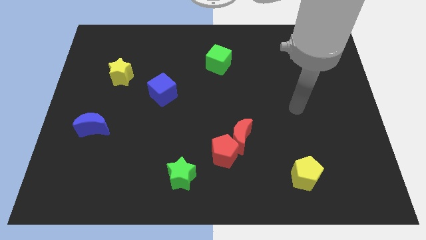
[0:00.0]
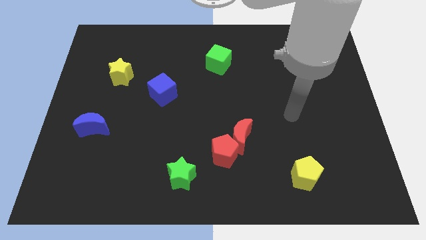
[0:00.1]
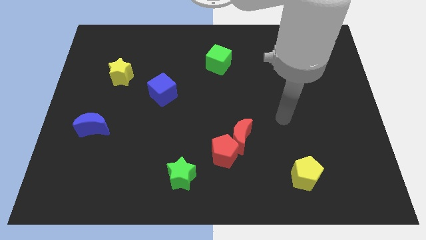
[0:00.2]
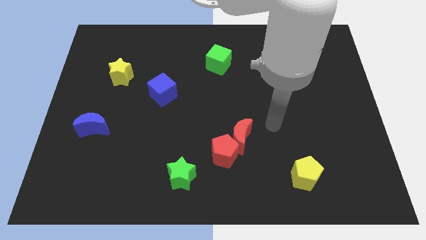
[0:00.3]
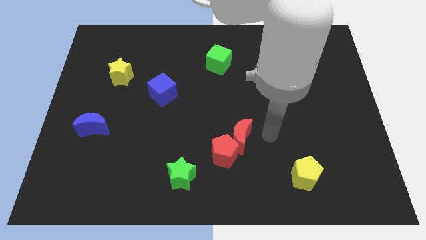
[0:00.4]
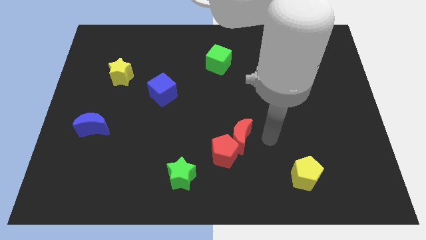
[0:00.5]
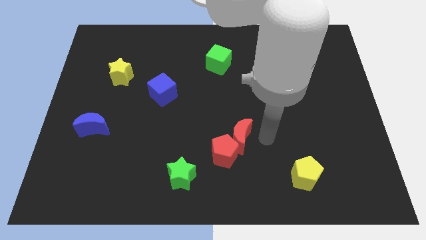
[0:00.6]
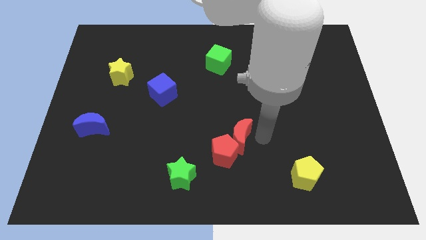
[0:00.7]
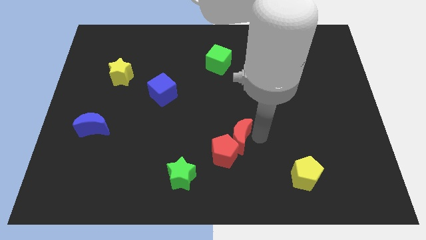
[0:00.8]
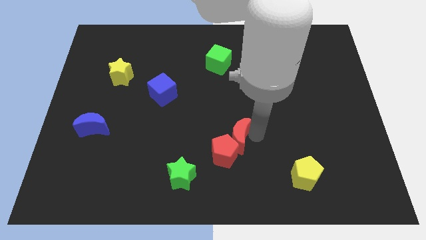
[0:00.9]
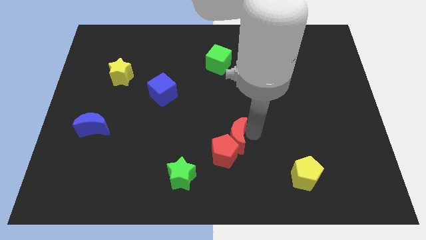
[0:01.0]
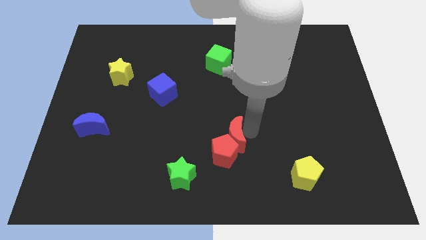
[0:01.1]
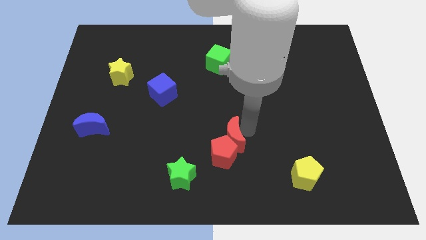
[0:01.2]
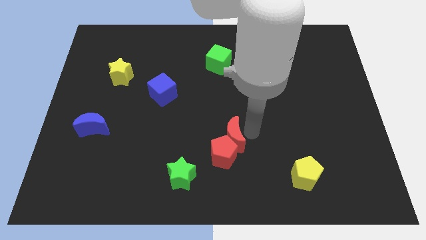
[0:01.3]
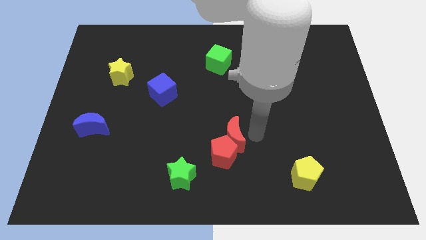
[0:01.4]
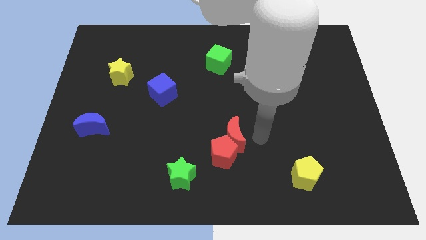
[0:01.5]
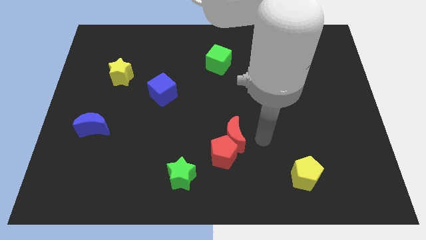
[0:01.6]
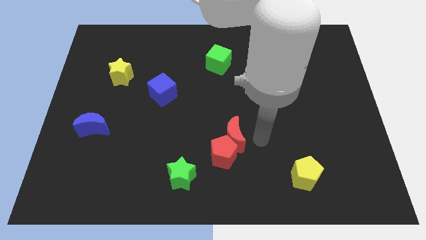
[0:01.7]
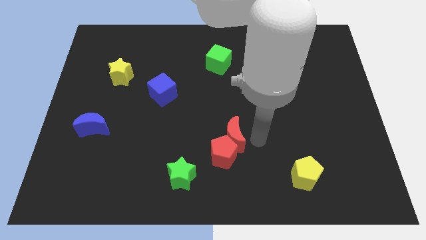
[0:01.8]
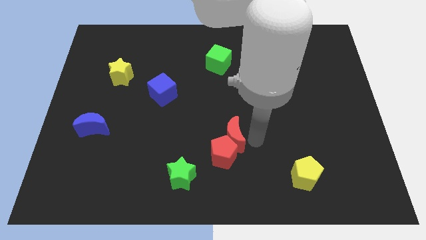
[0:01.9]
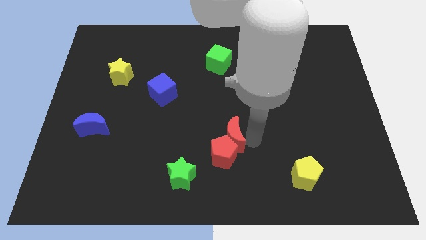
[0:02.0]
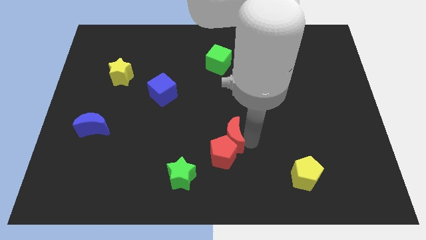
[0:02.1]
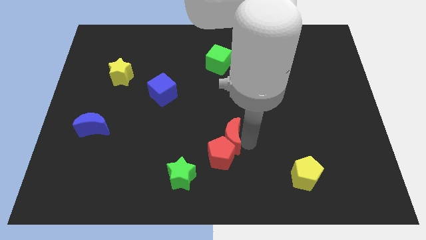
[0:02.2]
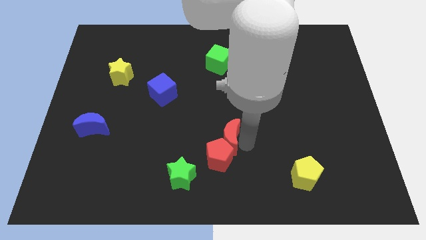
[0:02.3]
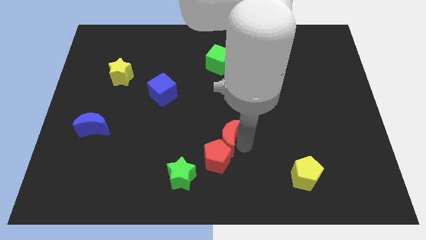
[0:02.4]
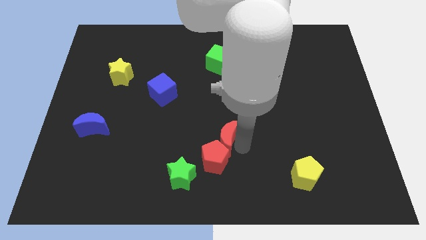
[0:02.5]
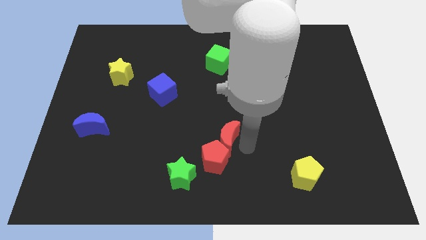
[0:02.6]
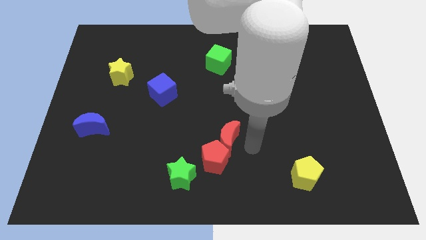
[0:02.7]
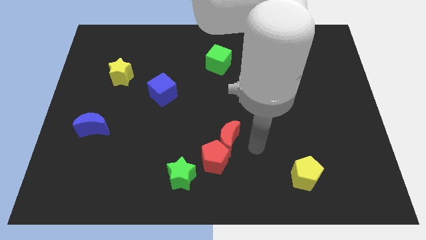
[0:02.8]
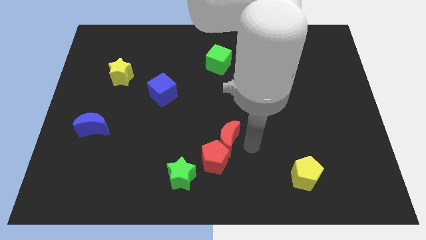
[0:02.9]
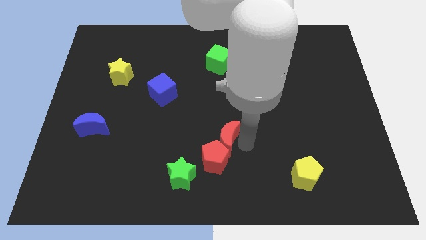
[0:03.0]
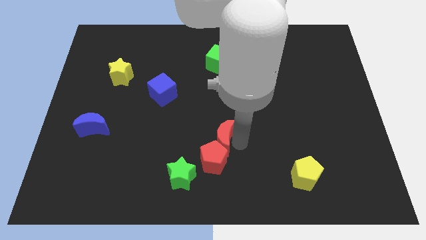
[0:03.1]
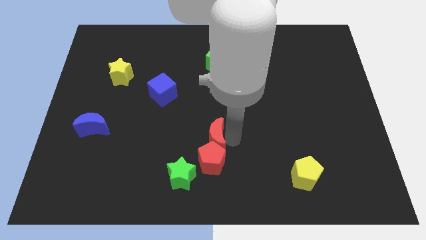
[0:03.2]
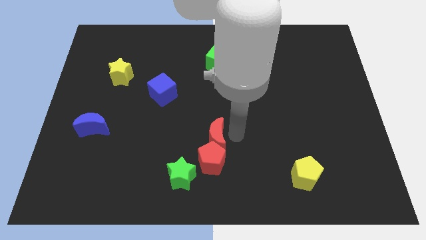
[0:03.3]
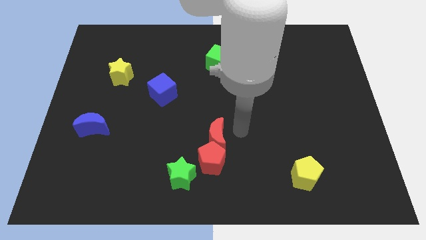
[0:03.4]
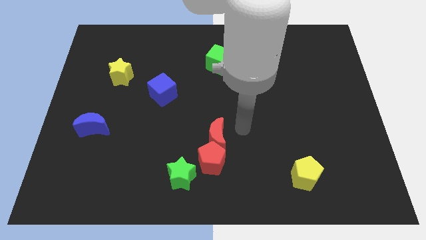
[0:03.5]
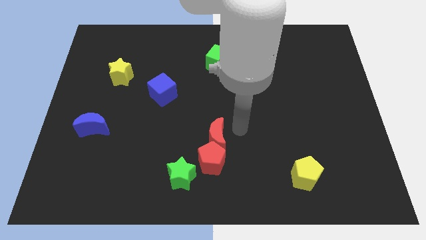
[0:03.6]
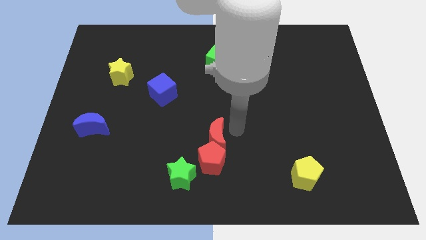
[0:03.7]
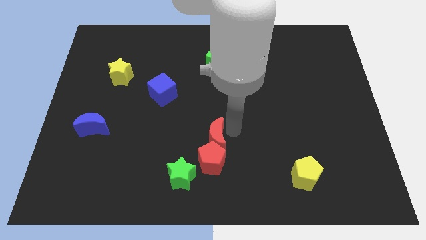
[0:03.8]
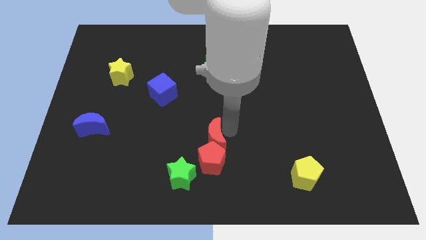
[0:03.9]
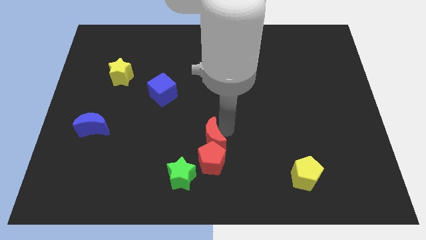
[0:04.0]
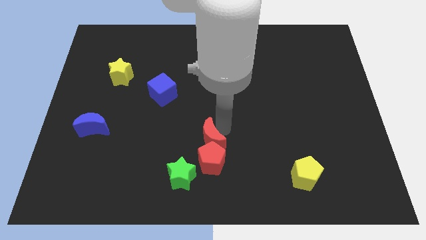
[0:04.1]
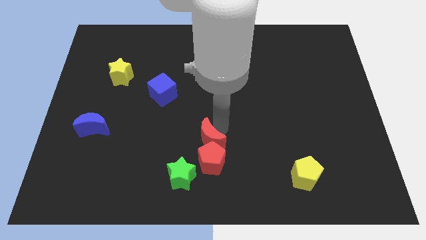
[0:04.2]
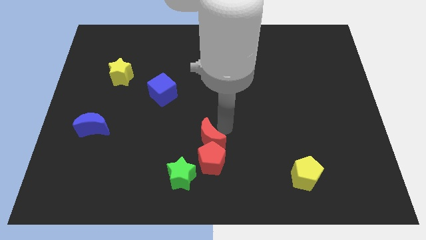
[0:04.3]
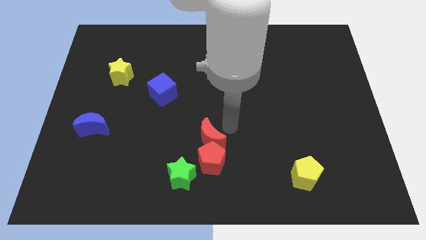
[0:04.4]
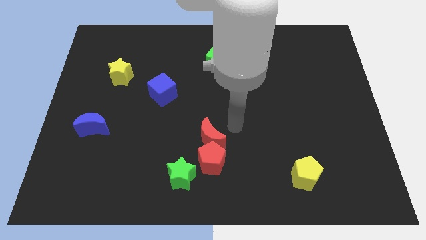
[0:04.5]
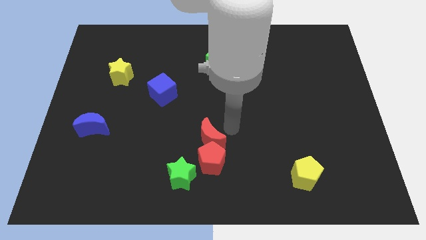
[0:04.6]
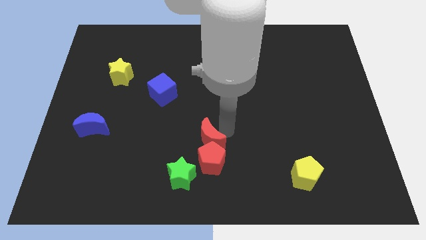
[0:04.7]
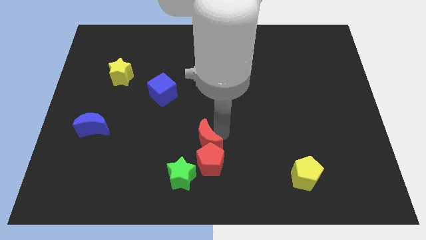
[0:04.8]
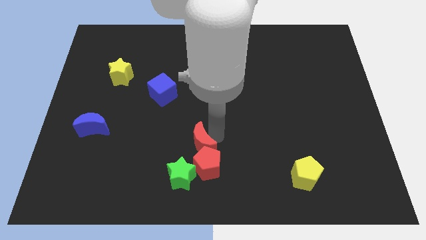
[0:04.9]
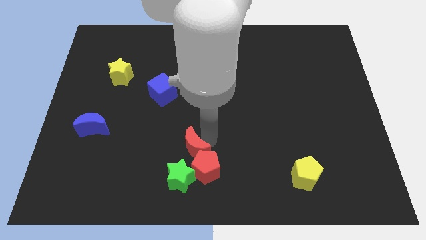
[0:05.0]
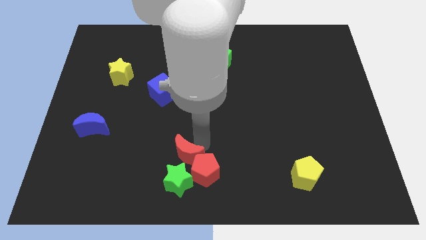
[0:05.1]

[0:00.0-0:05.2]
move the red moon just left of the red pentagon

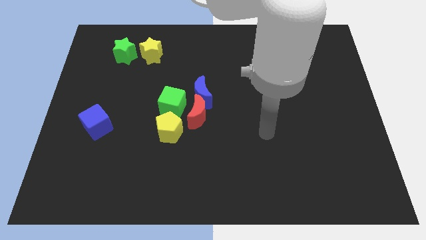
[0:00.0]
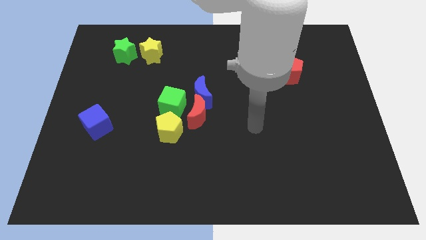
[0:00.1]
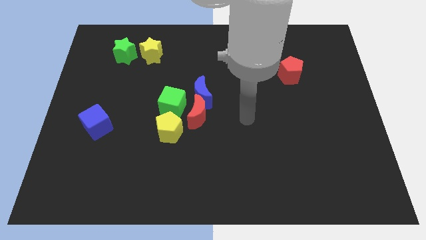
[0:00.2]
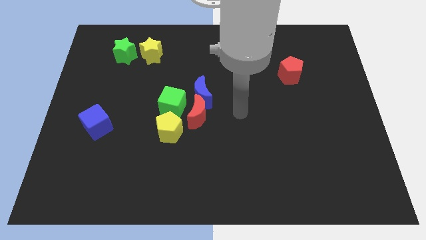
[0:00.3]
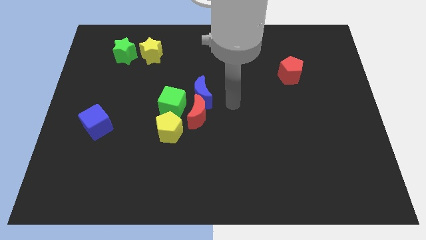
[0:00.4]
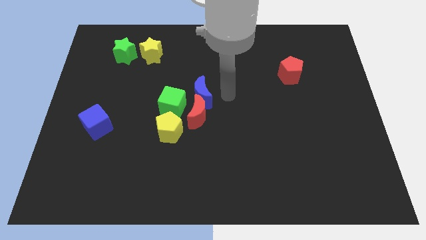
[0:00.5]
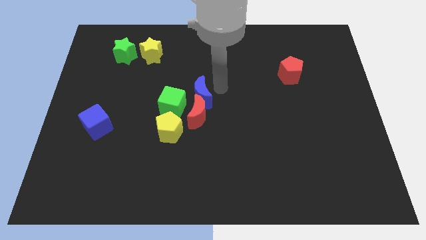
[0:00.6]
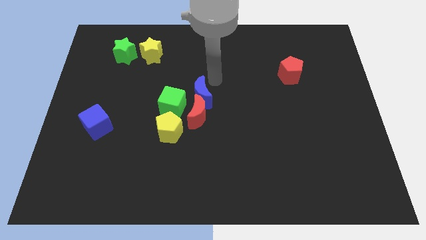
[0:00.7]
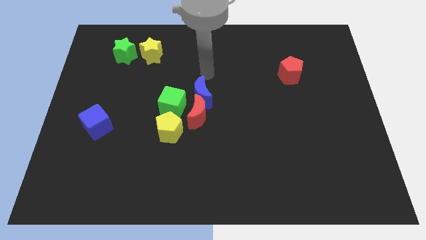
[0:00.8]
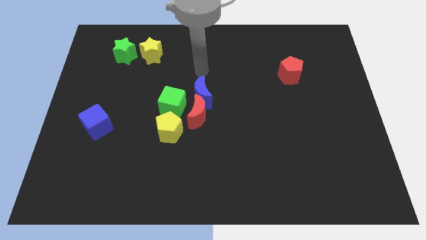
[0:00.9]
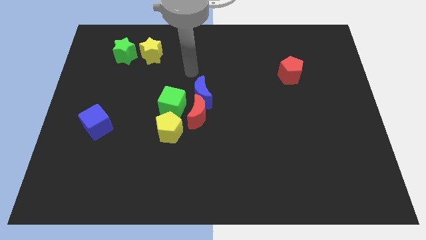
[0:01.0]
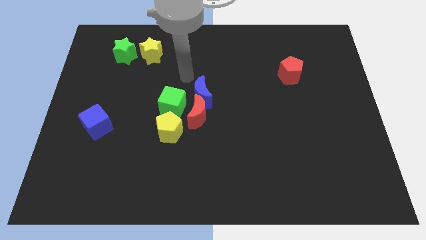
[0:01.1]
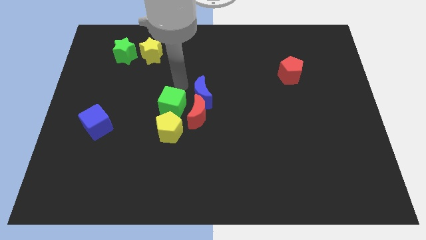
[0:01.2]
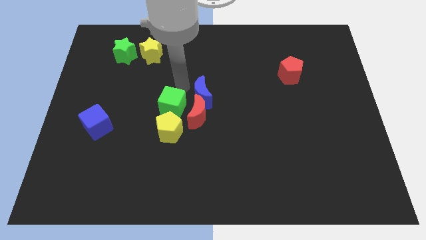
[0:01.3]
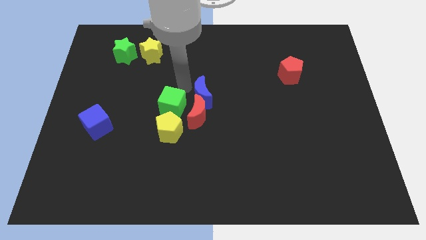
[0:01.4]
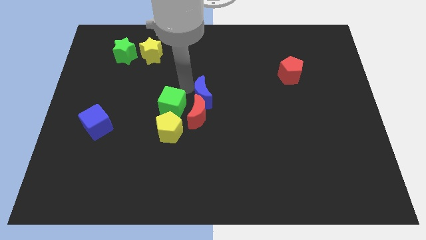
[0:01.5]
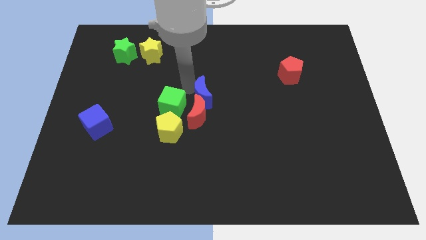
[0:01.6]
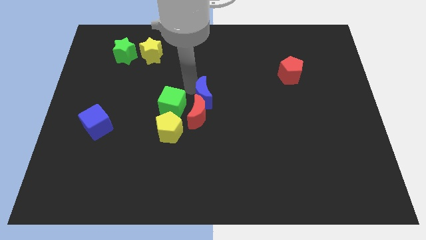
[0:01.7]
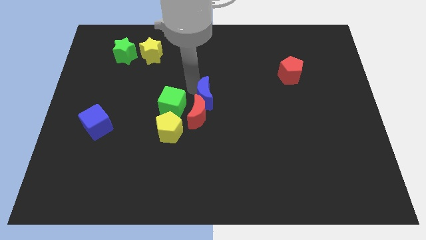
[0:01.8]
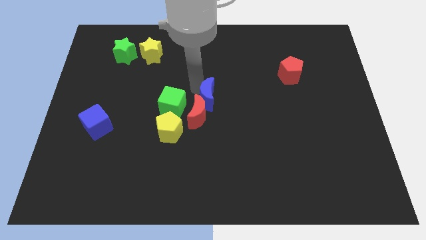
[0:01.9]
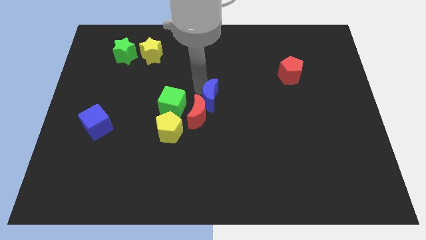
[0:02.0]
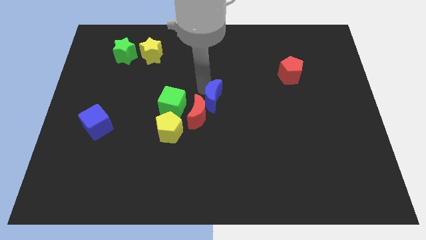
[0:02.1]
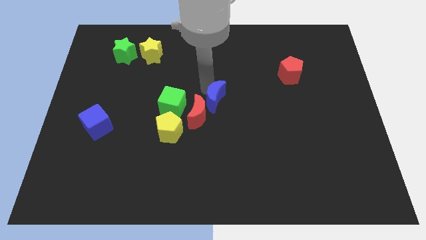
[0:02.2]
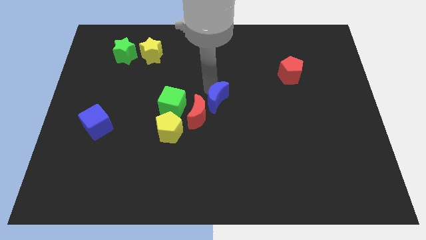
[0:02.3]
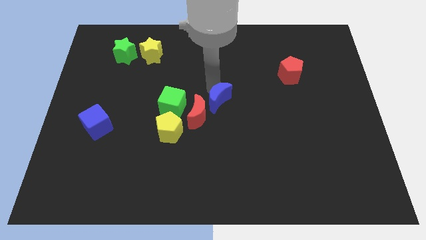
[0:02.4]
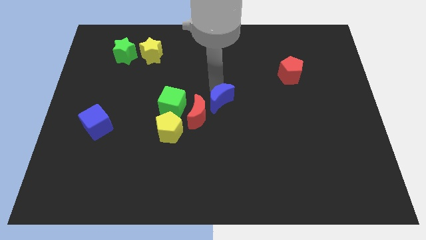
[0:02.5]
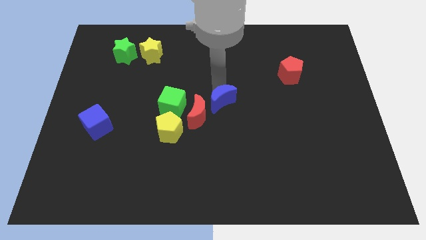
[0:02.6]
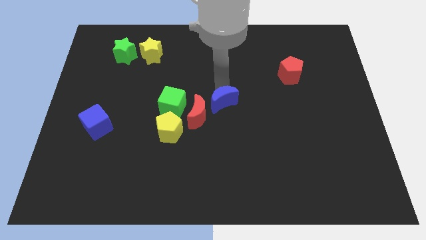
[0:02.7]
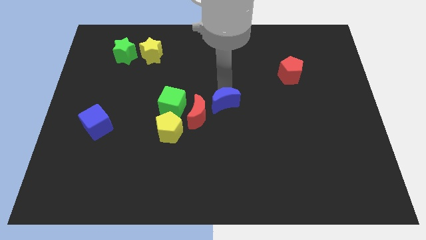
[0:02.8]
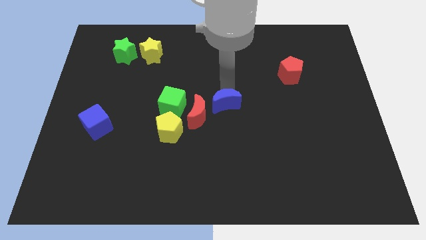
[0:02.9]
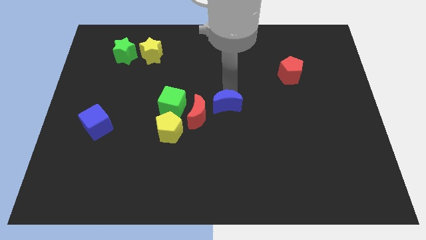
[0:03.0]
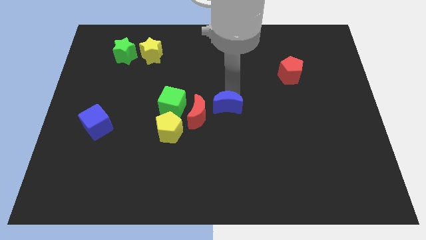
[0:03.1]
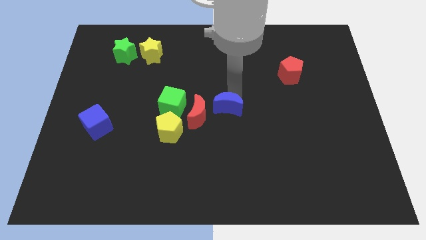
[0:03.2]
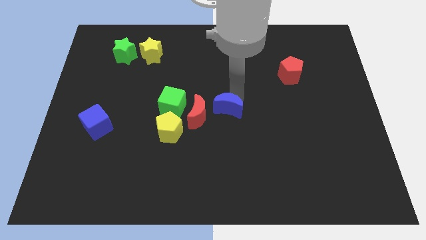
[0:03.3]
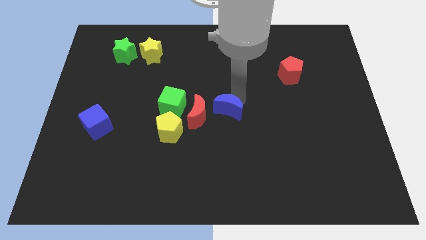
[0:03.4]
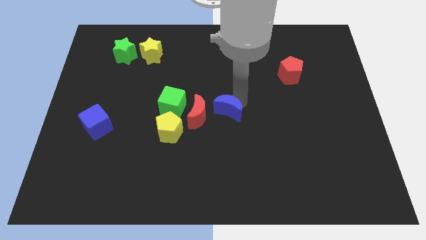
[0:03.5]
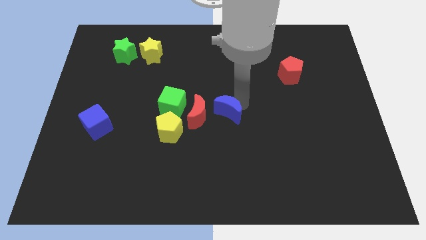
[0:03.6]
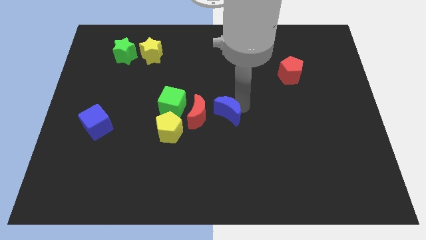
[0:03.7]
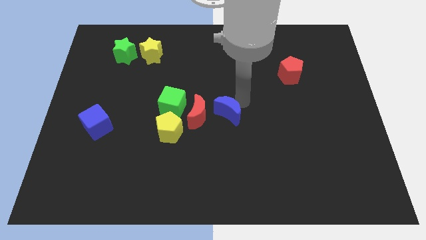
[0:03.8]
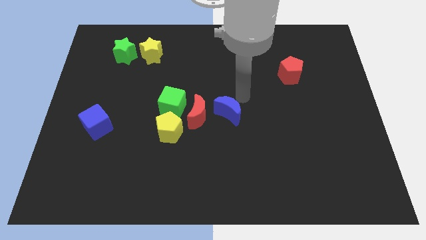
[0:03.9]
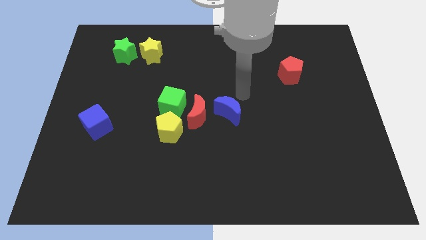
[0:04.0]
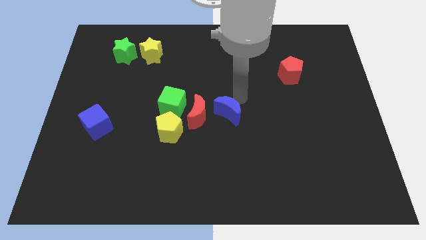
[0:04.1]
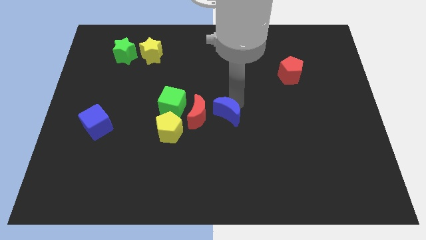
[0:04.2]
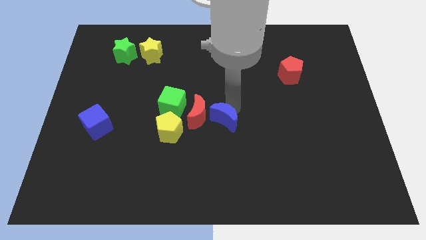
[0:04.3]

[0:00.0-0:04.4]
move the blue moon to the right side of the yellow pentagon
